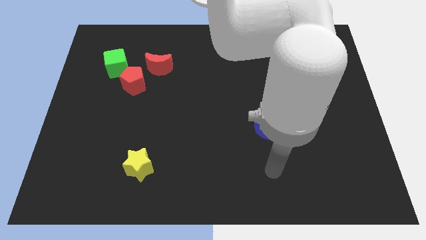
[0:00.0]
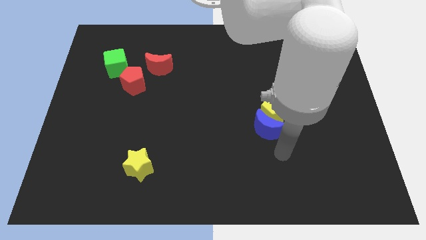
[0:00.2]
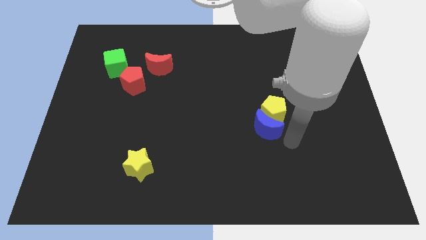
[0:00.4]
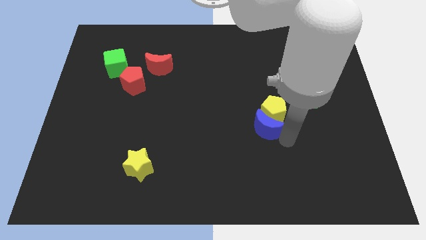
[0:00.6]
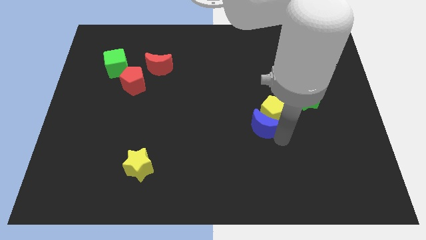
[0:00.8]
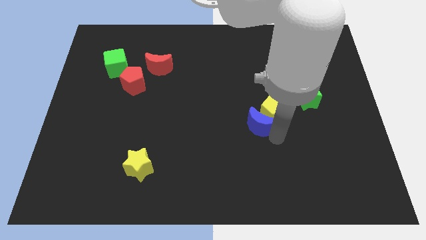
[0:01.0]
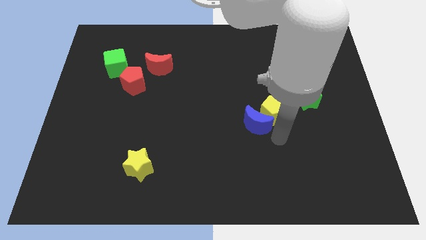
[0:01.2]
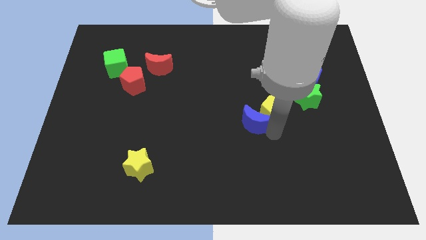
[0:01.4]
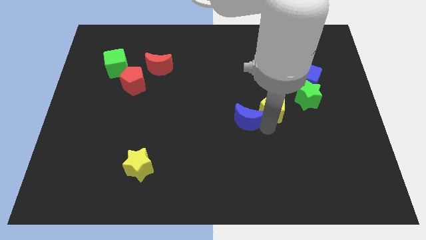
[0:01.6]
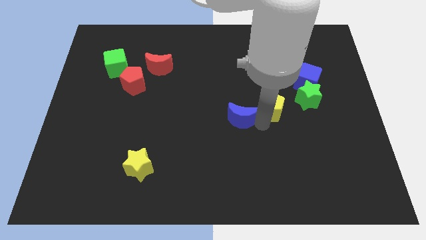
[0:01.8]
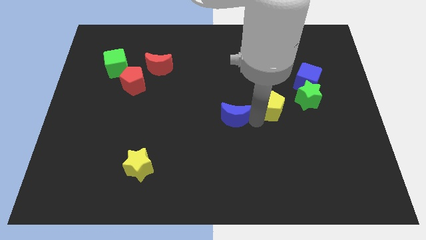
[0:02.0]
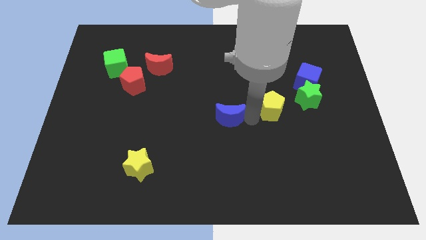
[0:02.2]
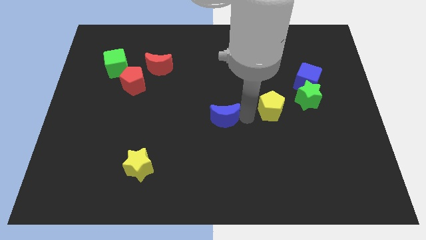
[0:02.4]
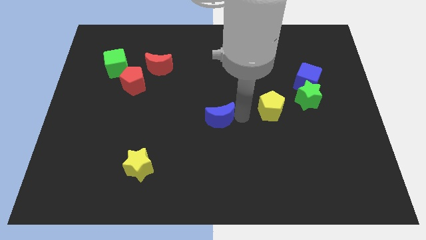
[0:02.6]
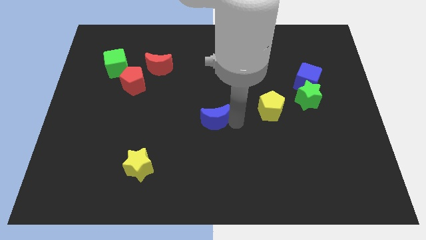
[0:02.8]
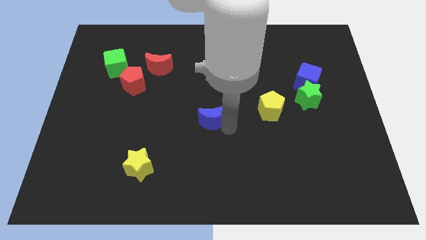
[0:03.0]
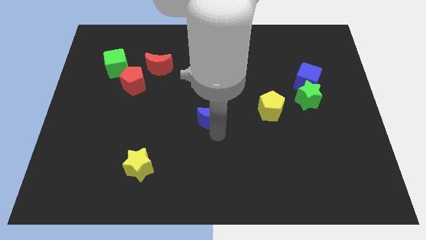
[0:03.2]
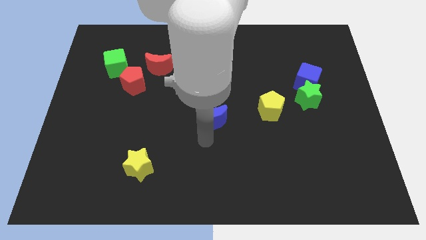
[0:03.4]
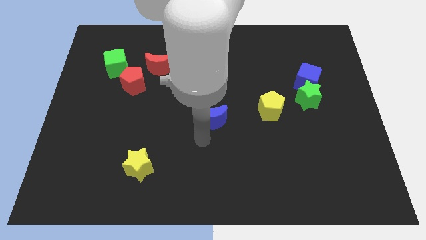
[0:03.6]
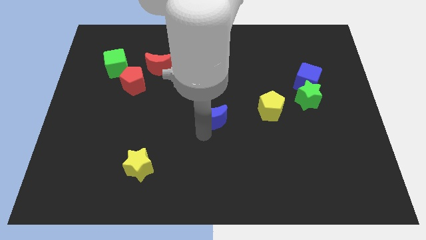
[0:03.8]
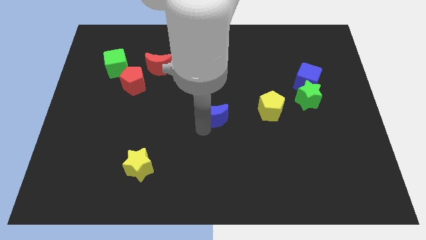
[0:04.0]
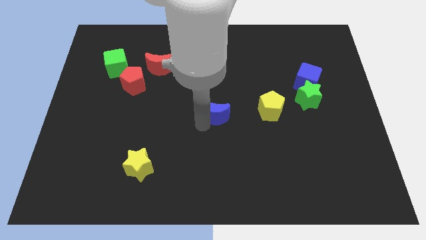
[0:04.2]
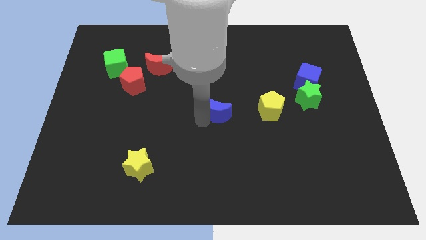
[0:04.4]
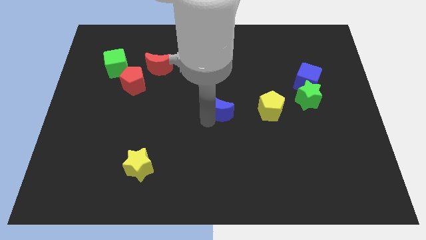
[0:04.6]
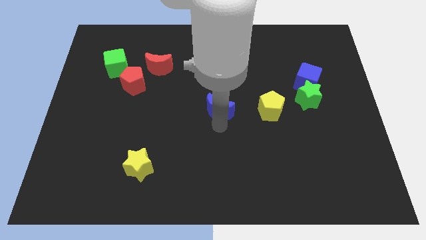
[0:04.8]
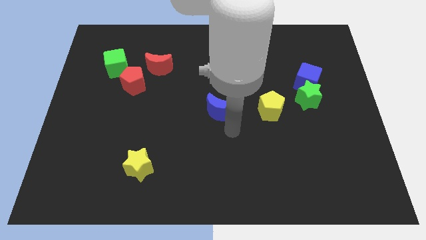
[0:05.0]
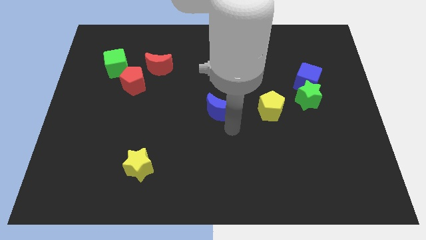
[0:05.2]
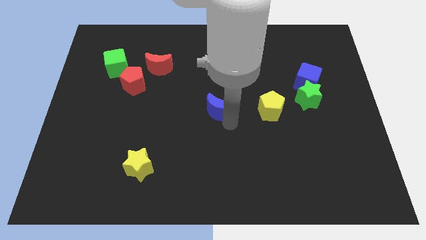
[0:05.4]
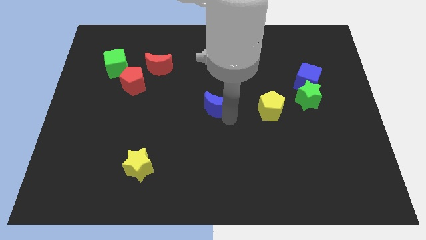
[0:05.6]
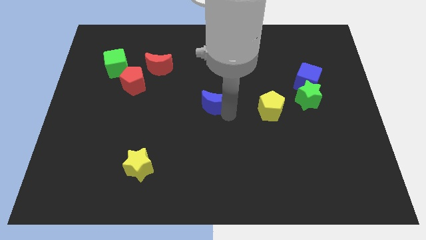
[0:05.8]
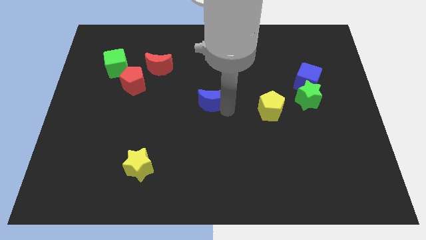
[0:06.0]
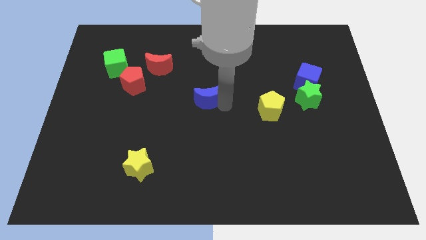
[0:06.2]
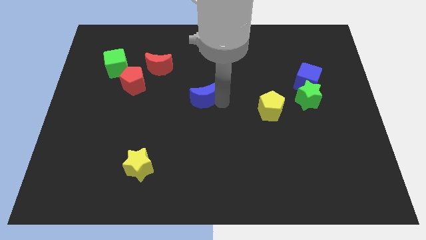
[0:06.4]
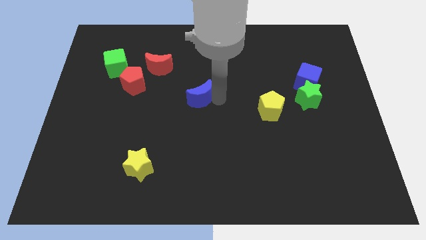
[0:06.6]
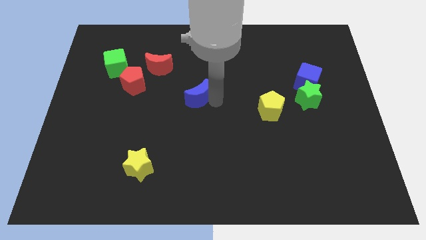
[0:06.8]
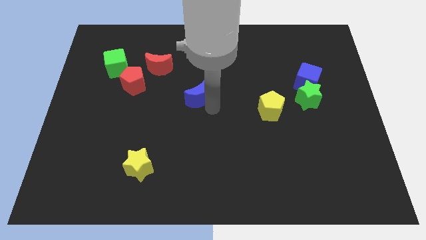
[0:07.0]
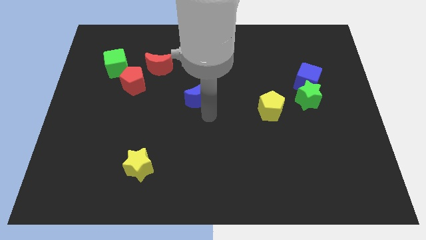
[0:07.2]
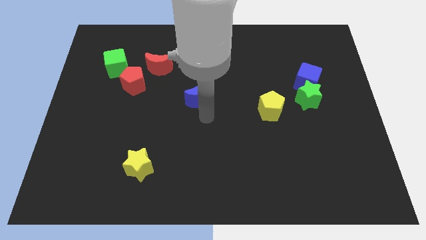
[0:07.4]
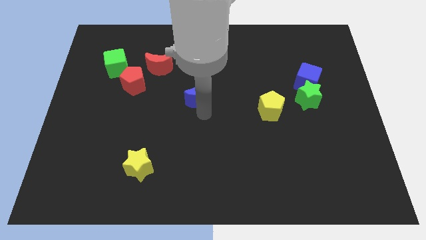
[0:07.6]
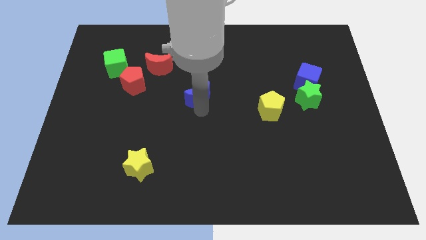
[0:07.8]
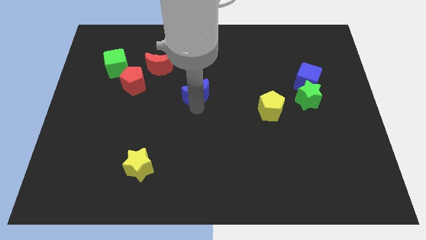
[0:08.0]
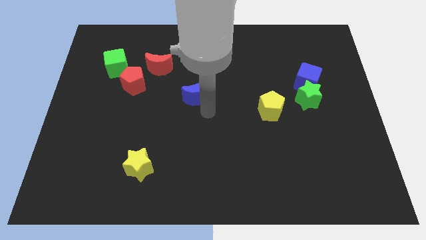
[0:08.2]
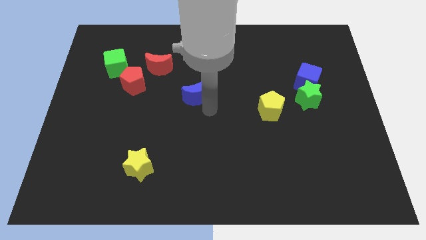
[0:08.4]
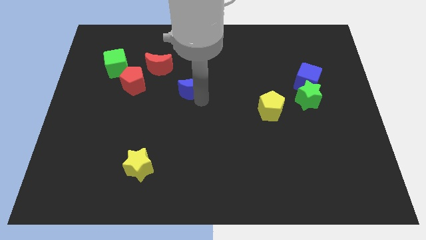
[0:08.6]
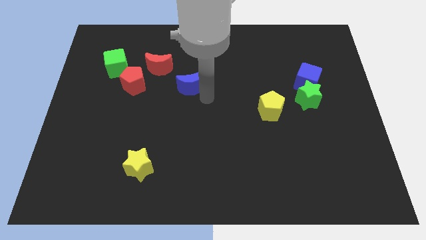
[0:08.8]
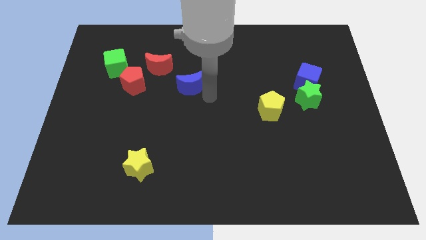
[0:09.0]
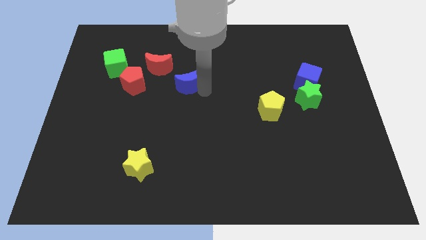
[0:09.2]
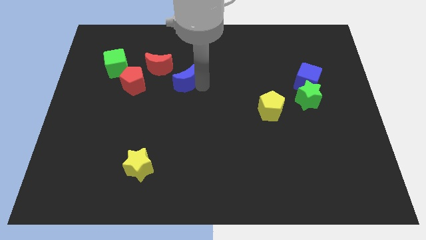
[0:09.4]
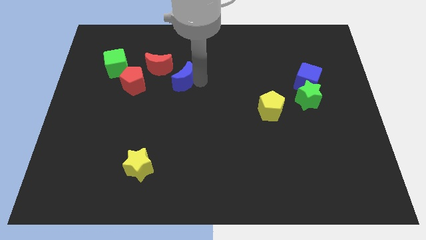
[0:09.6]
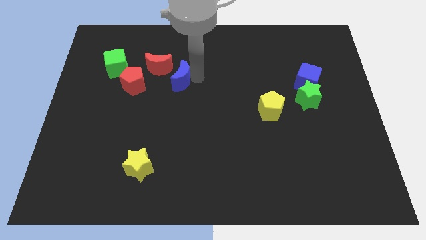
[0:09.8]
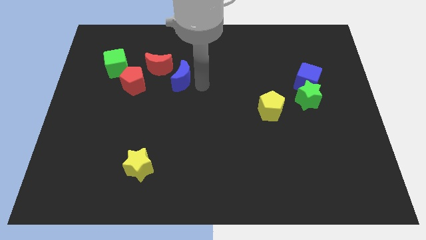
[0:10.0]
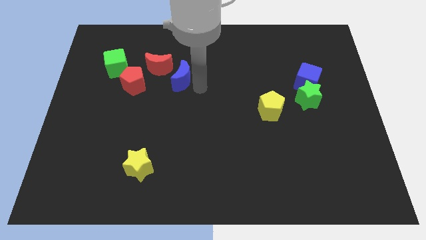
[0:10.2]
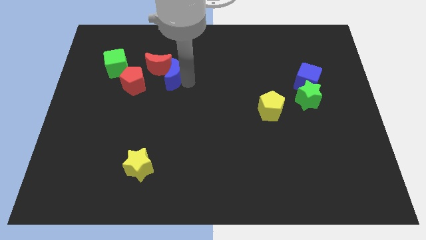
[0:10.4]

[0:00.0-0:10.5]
slide the blue moon towards the red moon

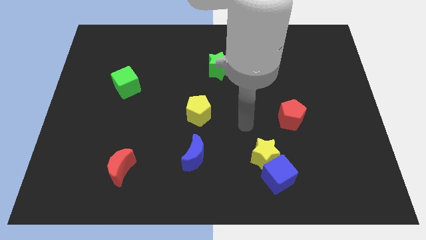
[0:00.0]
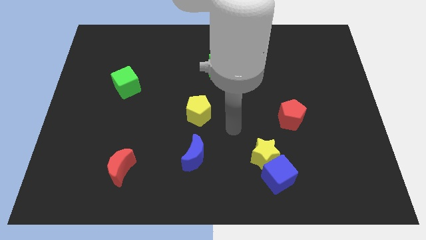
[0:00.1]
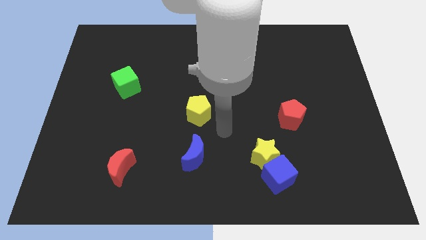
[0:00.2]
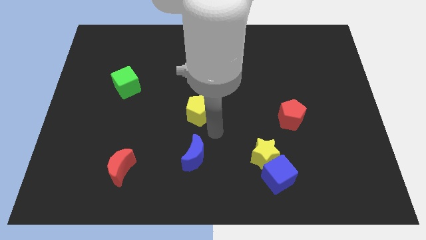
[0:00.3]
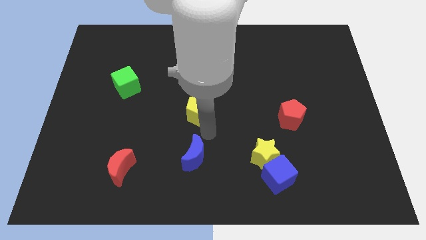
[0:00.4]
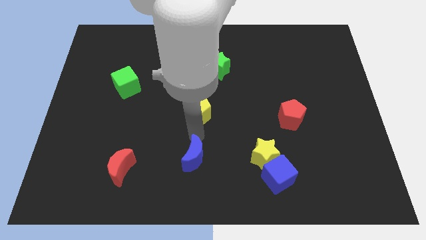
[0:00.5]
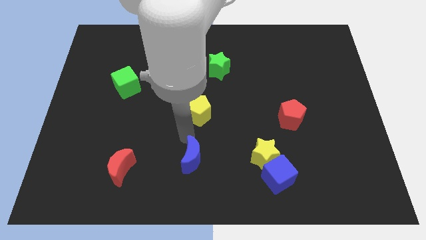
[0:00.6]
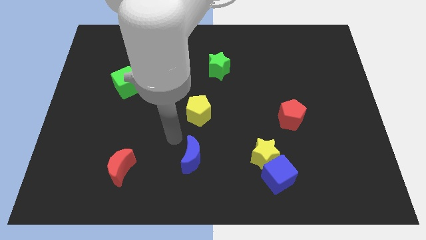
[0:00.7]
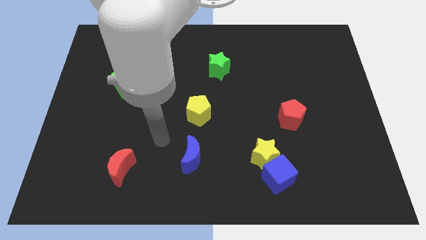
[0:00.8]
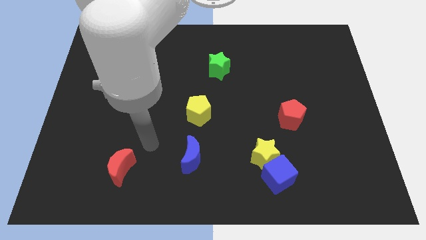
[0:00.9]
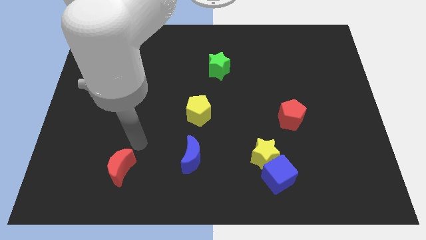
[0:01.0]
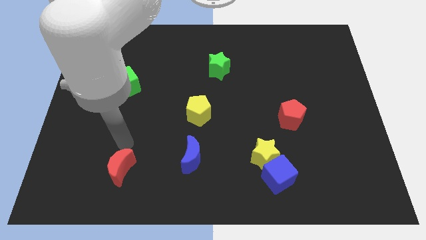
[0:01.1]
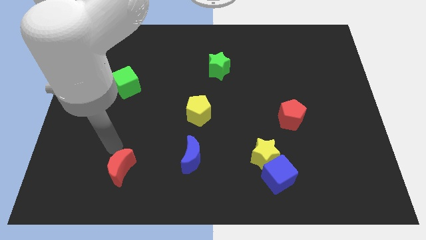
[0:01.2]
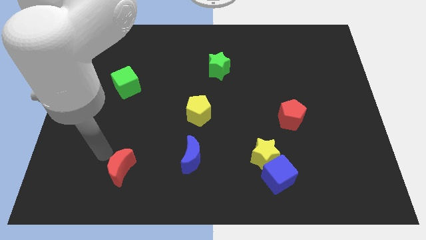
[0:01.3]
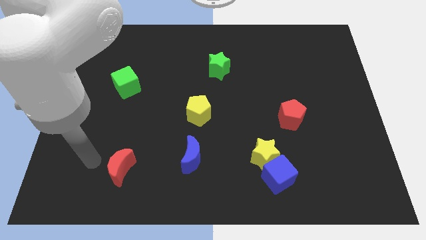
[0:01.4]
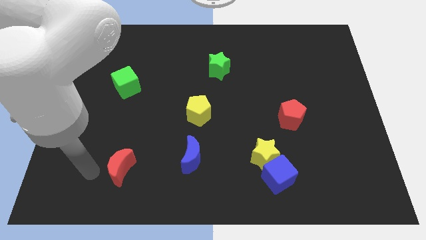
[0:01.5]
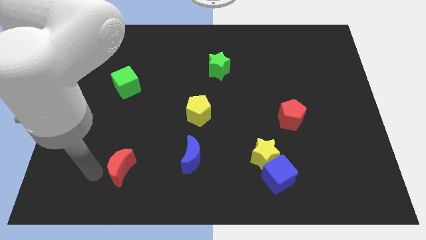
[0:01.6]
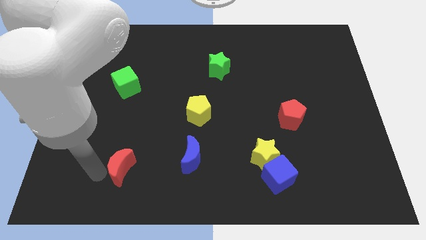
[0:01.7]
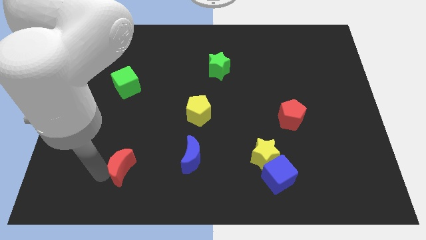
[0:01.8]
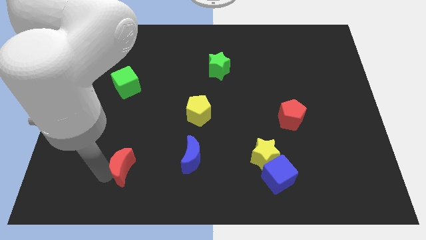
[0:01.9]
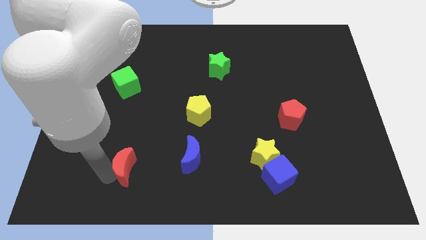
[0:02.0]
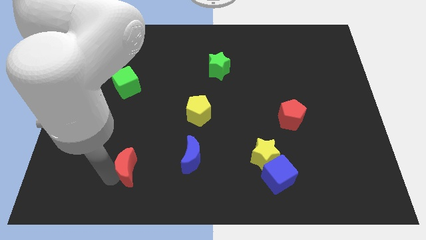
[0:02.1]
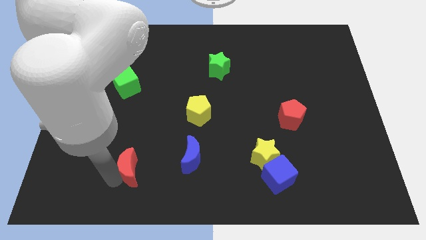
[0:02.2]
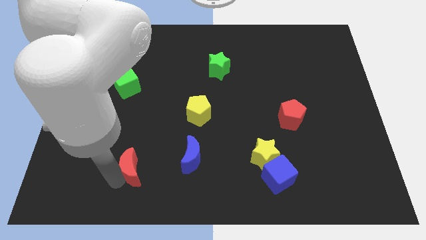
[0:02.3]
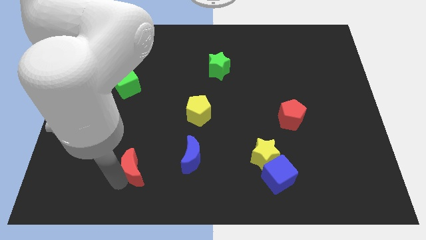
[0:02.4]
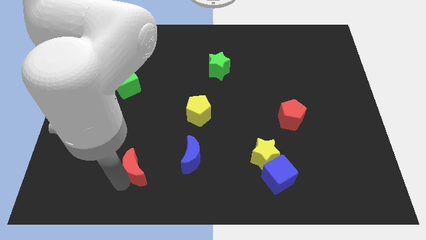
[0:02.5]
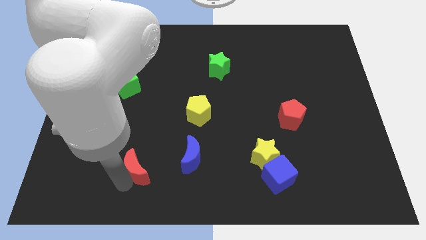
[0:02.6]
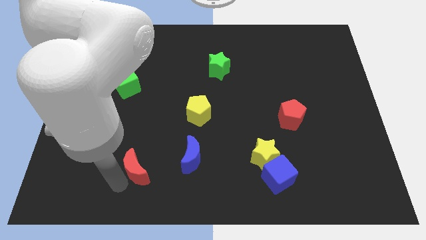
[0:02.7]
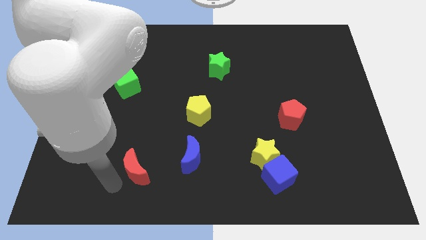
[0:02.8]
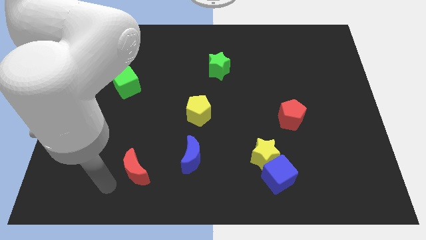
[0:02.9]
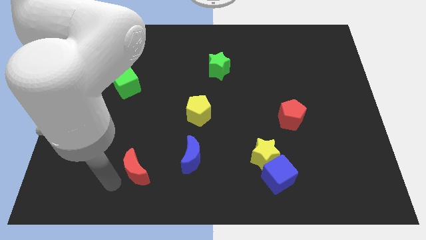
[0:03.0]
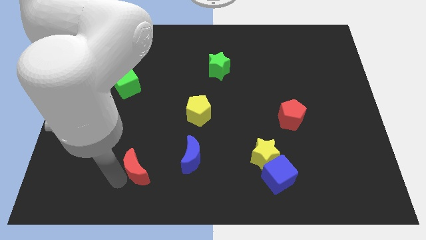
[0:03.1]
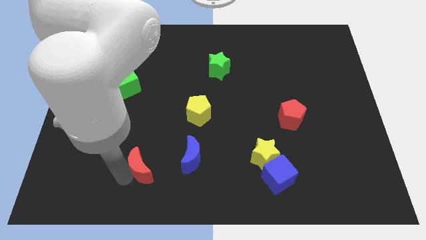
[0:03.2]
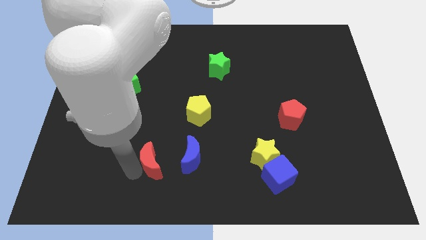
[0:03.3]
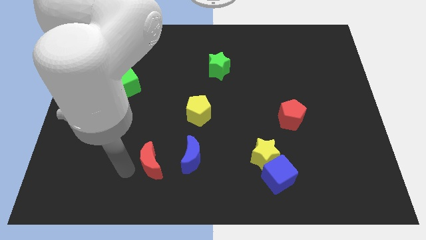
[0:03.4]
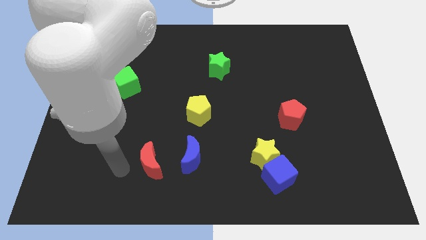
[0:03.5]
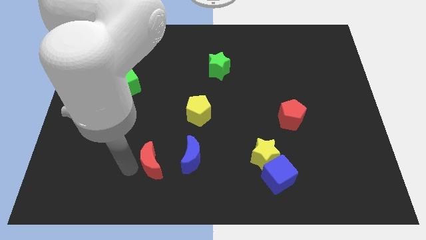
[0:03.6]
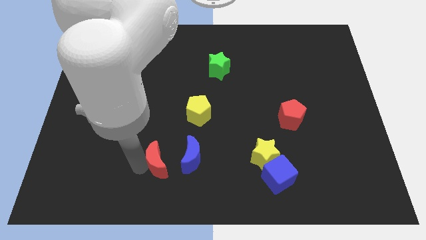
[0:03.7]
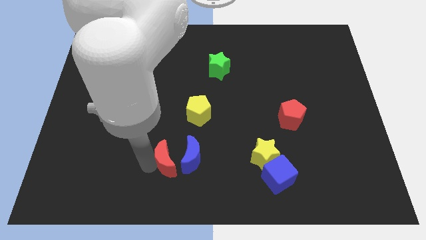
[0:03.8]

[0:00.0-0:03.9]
put the red moon towards the blue moon
